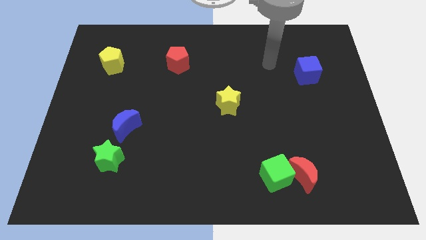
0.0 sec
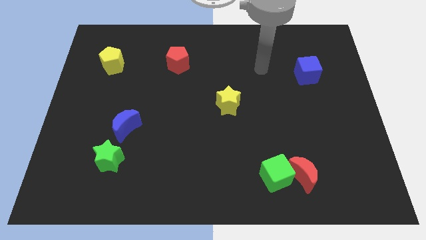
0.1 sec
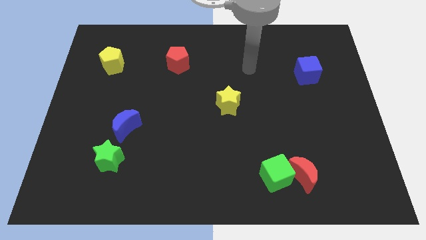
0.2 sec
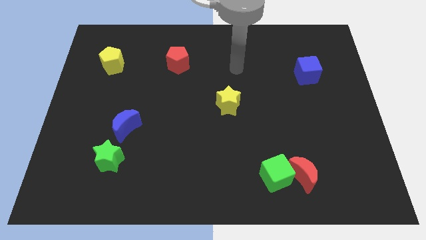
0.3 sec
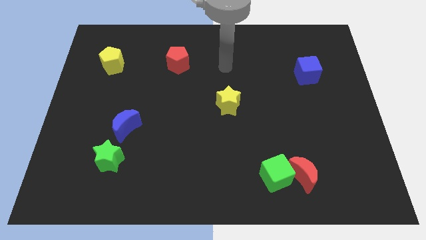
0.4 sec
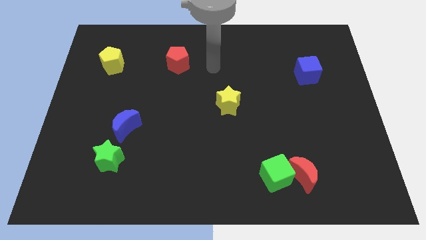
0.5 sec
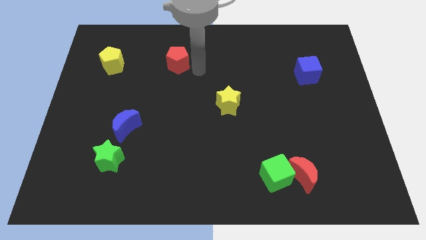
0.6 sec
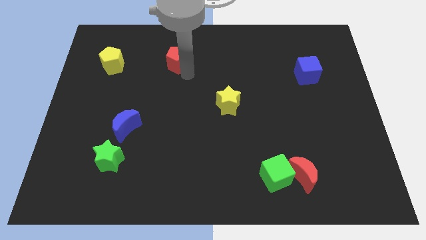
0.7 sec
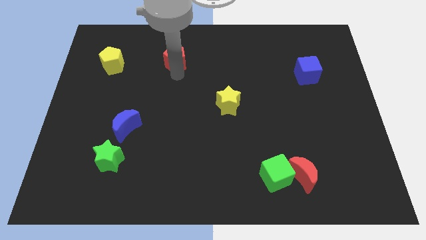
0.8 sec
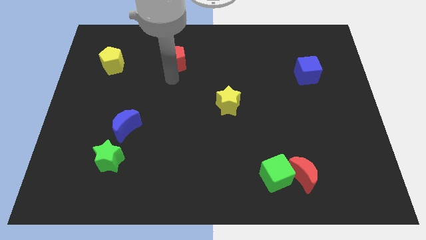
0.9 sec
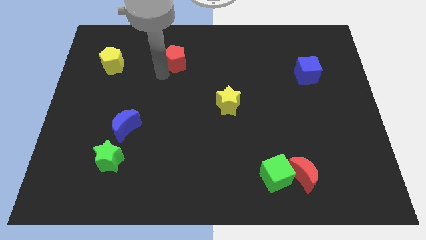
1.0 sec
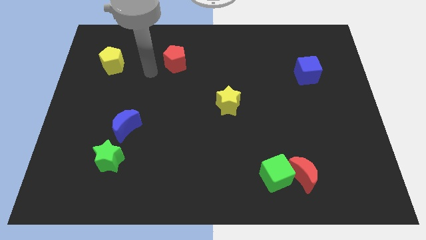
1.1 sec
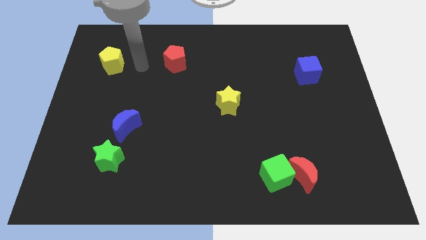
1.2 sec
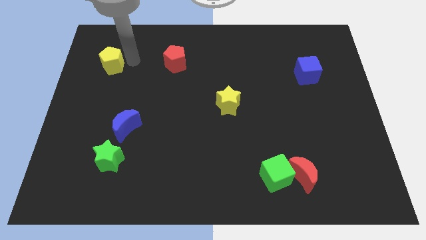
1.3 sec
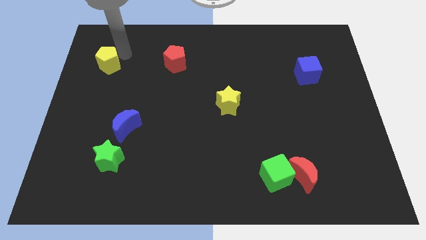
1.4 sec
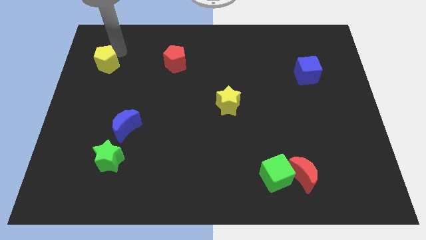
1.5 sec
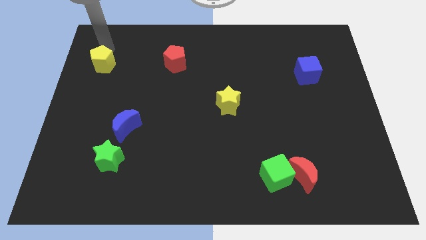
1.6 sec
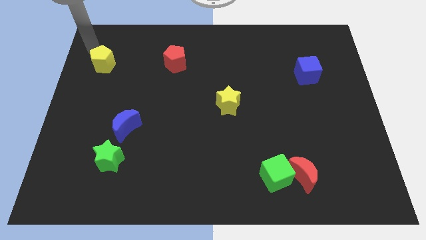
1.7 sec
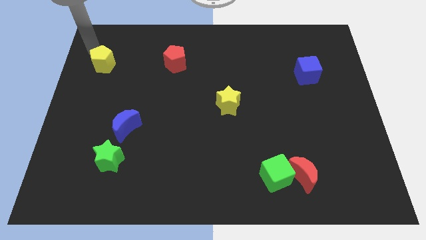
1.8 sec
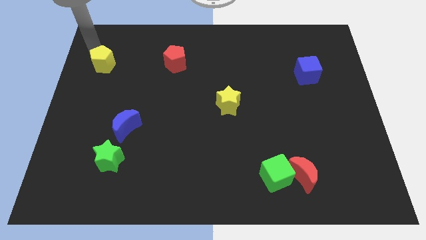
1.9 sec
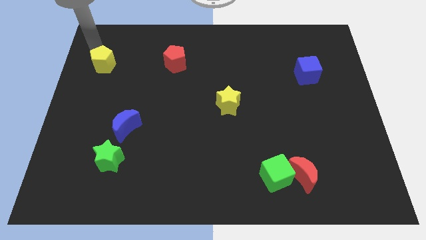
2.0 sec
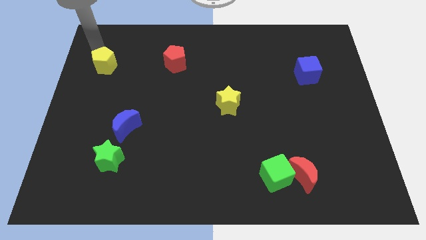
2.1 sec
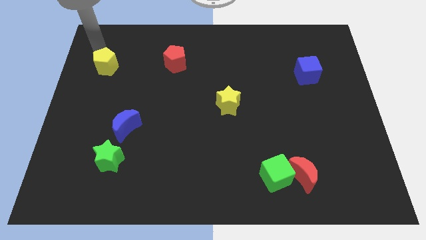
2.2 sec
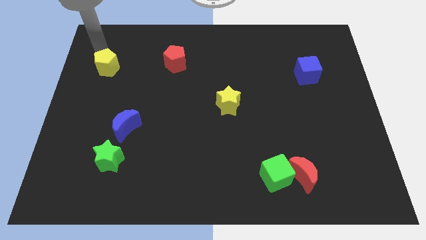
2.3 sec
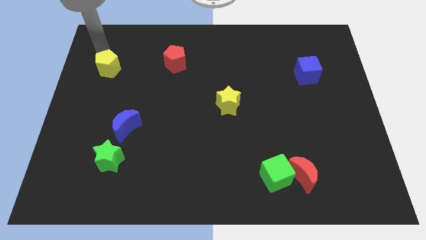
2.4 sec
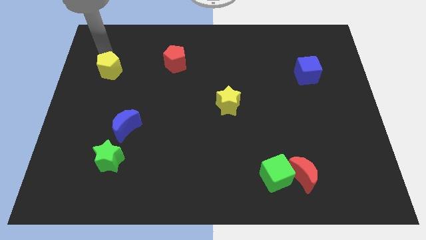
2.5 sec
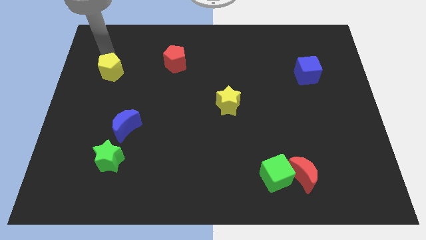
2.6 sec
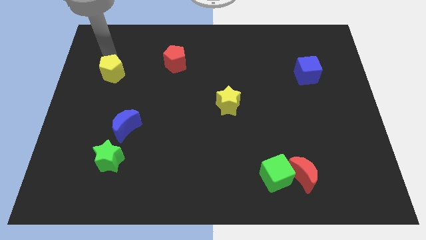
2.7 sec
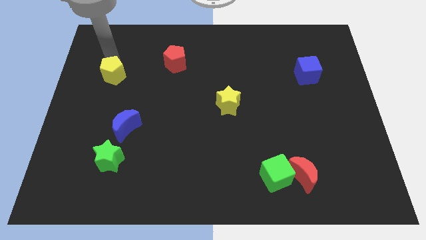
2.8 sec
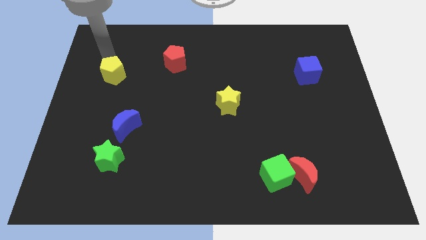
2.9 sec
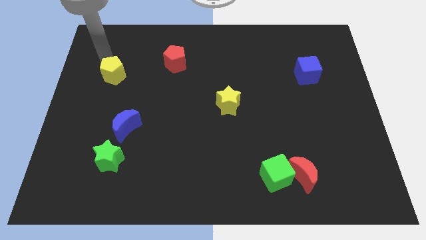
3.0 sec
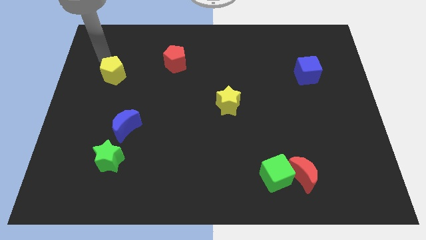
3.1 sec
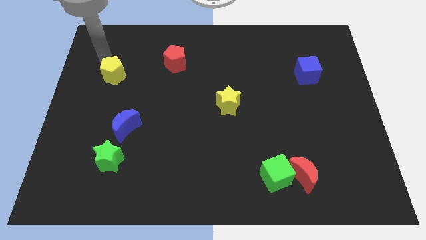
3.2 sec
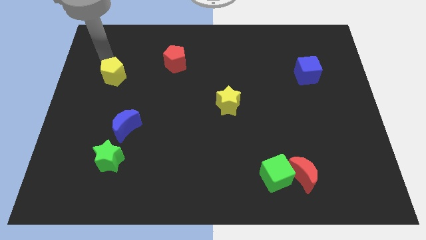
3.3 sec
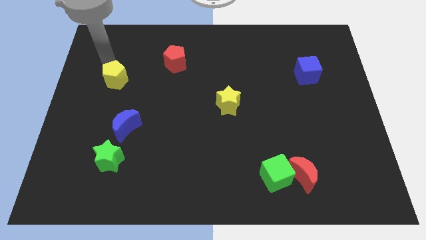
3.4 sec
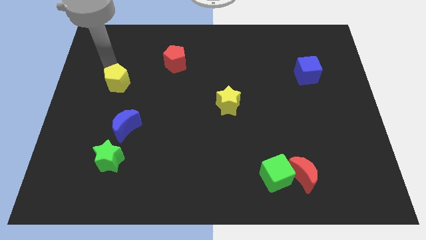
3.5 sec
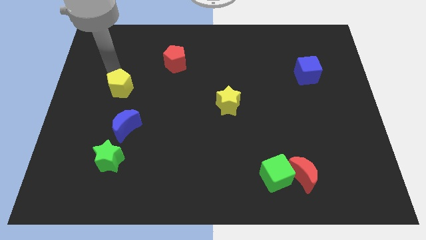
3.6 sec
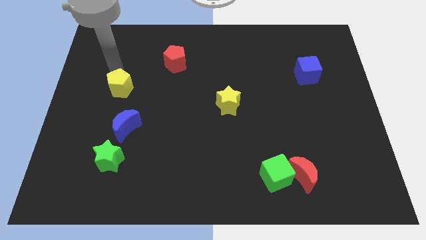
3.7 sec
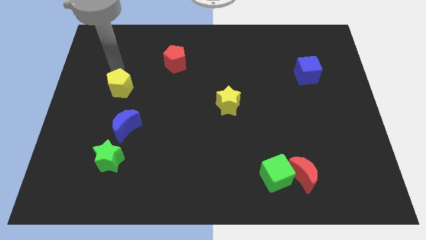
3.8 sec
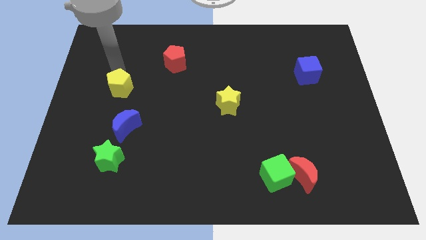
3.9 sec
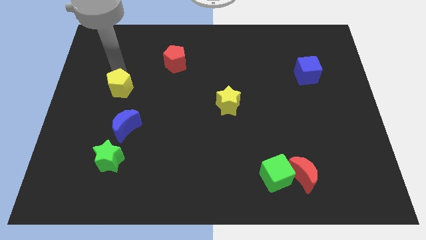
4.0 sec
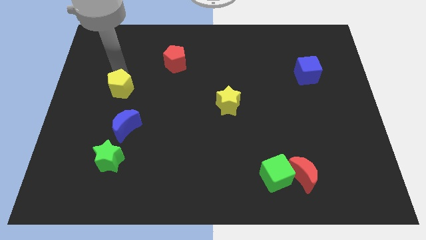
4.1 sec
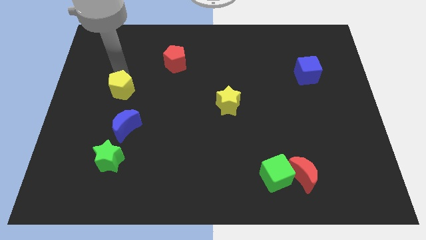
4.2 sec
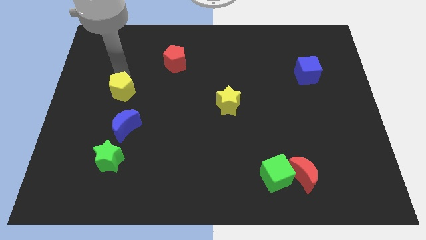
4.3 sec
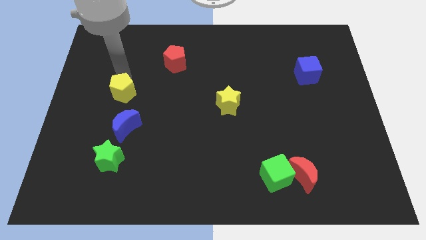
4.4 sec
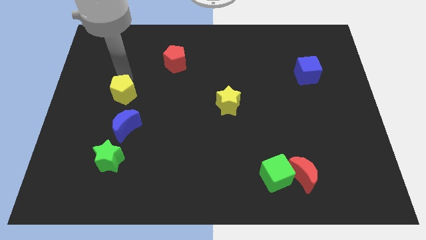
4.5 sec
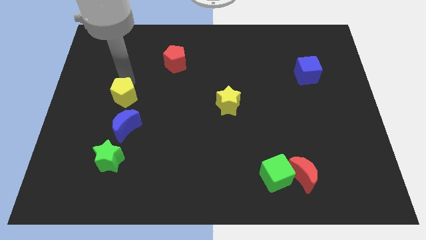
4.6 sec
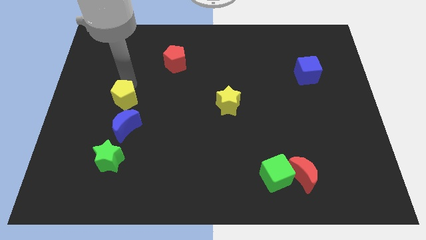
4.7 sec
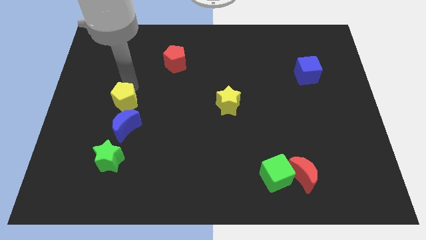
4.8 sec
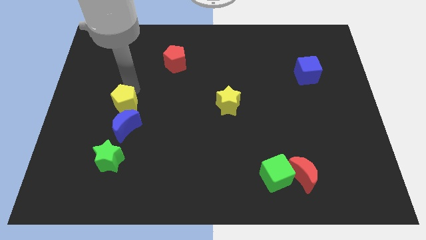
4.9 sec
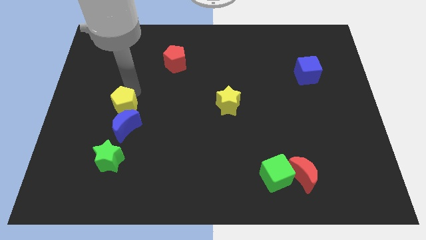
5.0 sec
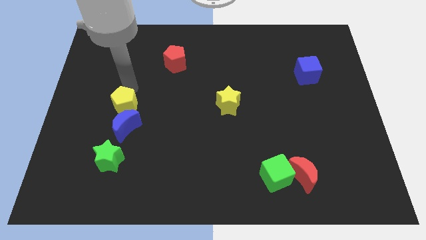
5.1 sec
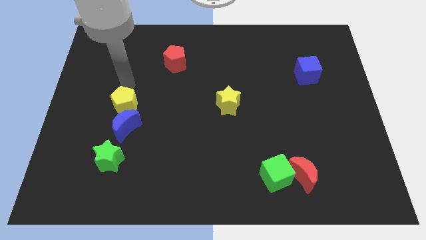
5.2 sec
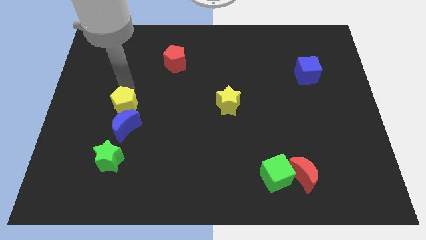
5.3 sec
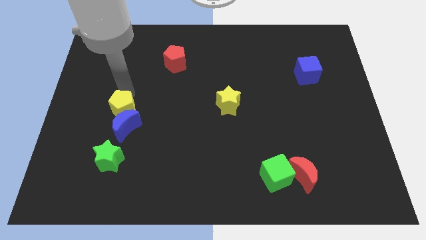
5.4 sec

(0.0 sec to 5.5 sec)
push the yellow pentagon close to the blue moon

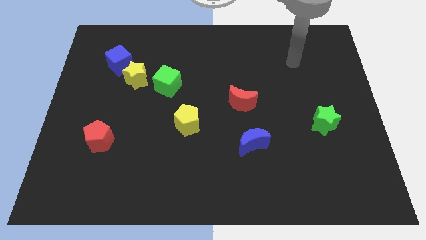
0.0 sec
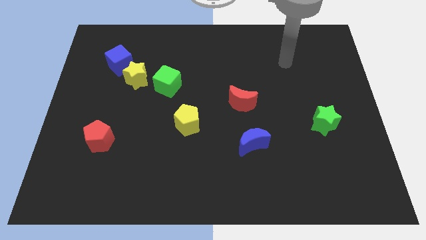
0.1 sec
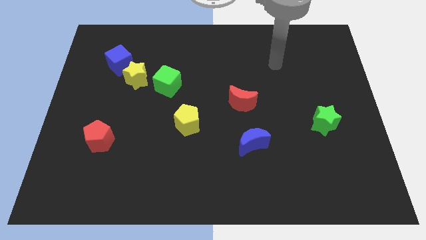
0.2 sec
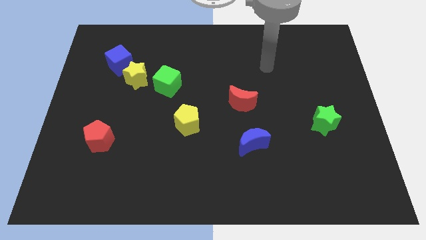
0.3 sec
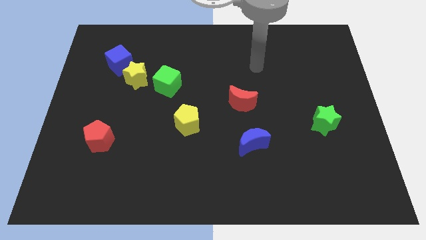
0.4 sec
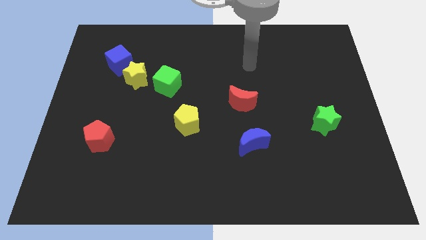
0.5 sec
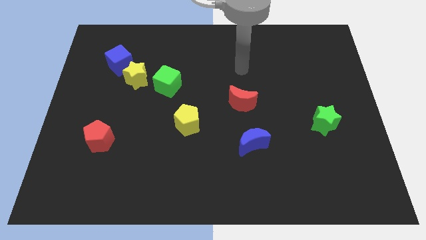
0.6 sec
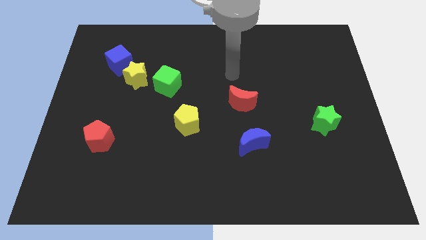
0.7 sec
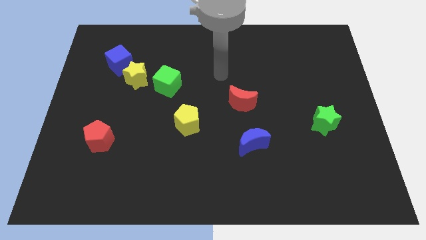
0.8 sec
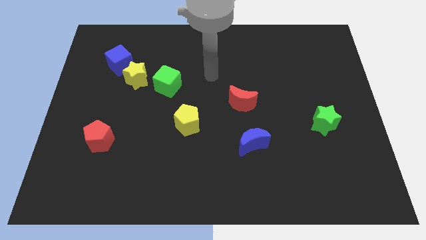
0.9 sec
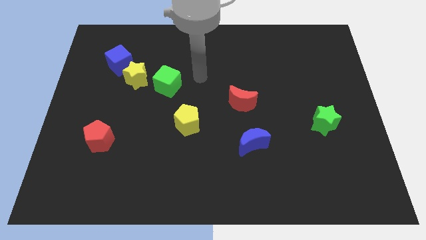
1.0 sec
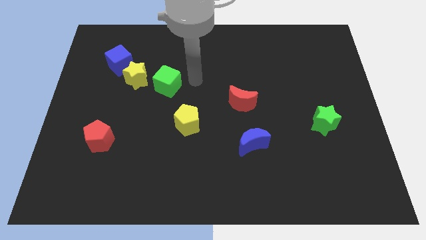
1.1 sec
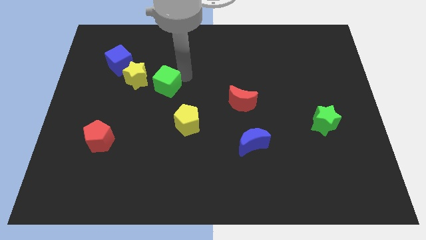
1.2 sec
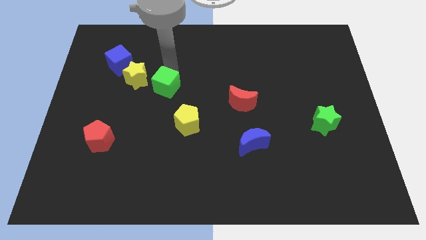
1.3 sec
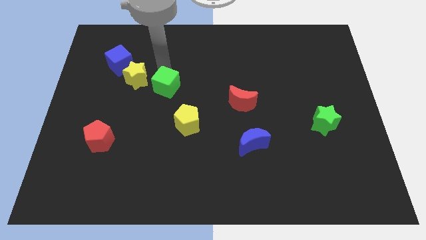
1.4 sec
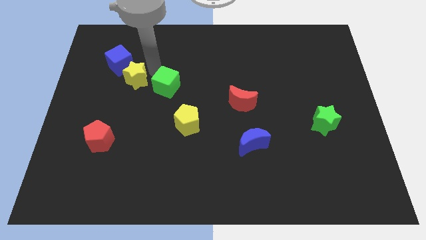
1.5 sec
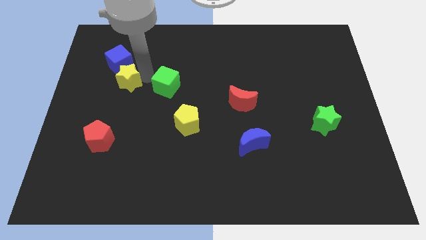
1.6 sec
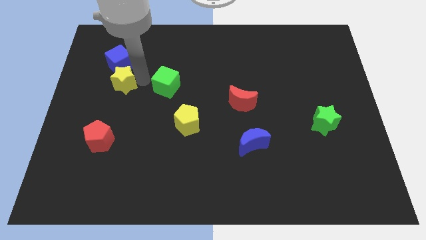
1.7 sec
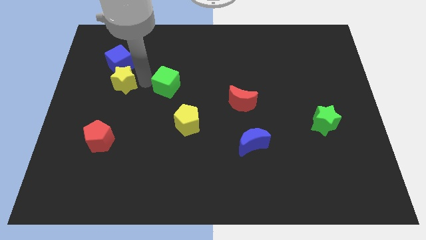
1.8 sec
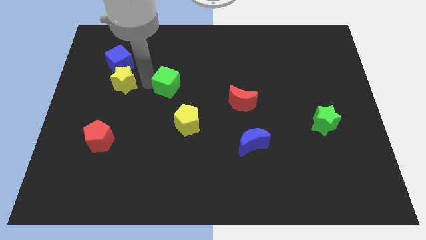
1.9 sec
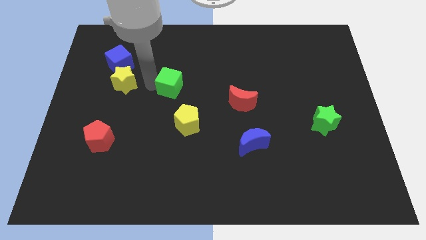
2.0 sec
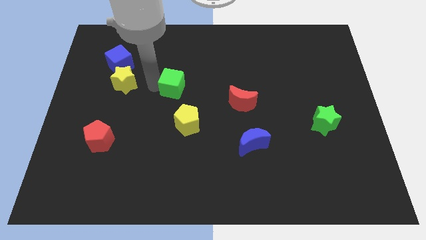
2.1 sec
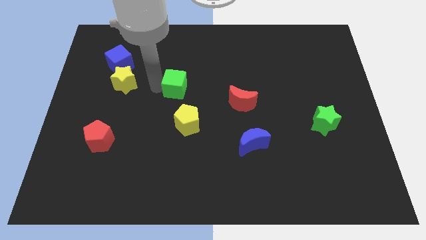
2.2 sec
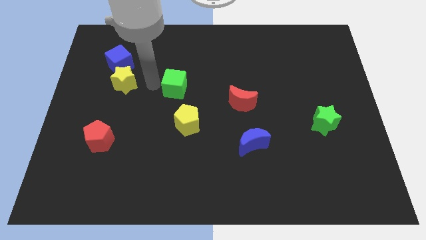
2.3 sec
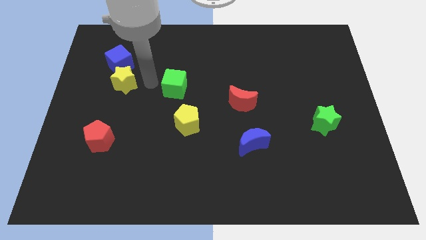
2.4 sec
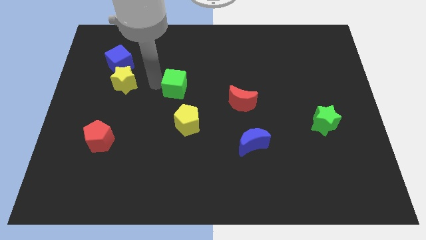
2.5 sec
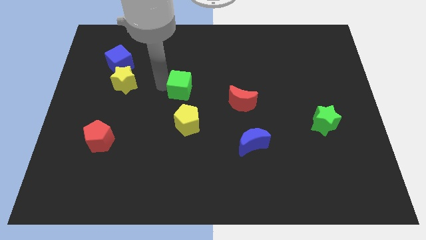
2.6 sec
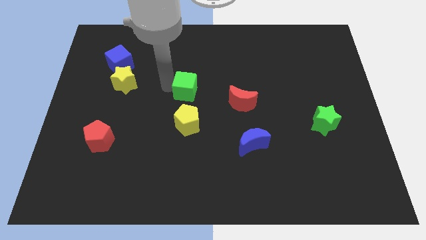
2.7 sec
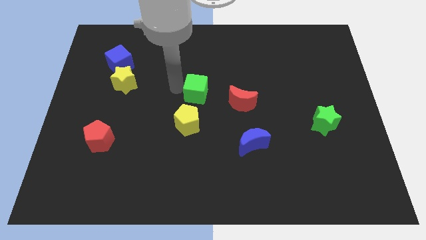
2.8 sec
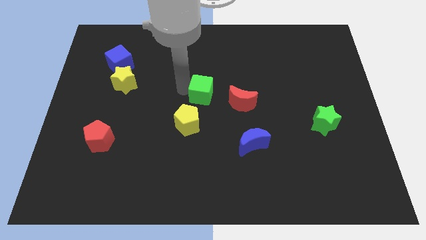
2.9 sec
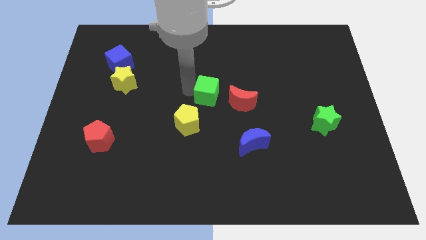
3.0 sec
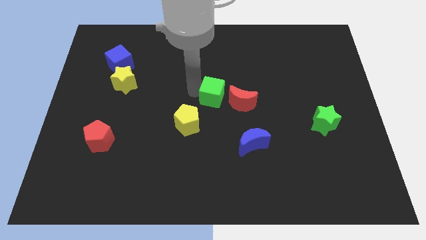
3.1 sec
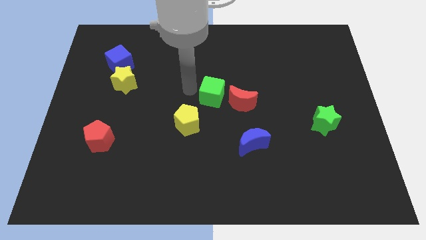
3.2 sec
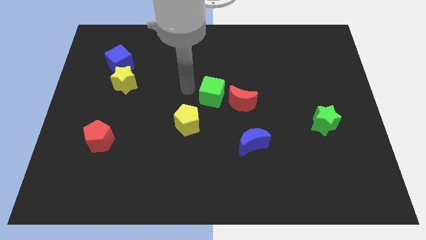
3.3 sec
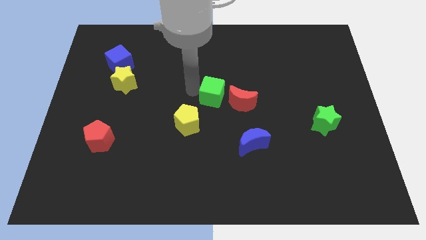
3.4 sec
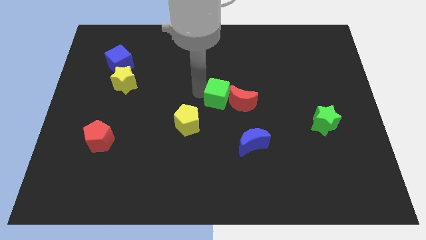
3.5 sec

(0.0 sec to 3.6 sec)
slide the green cube to the red moon
